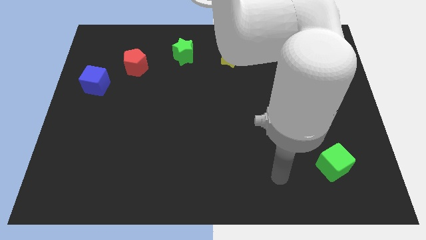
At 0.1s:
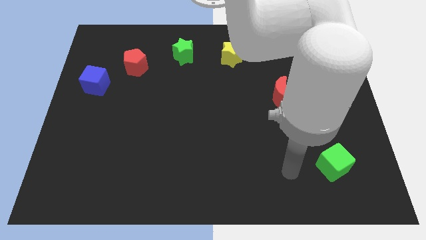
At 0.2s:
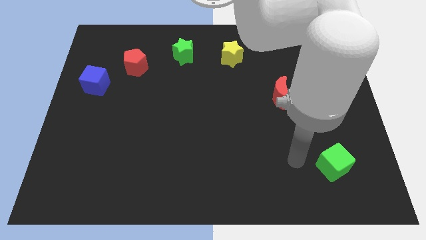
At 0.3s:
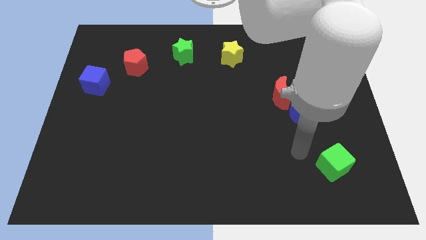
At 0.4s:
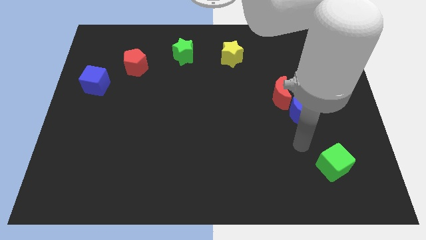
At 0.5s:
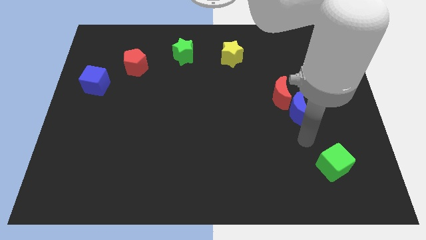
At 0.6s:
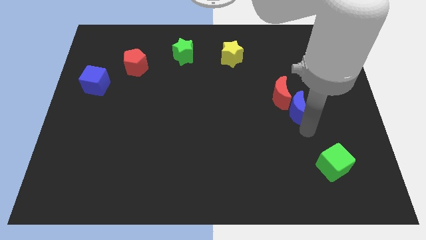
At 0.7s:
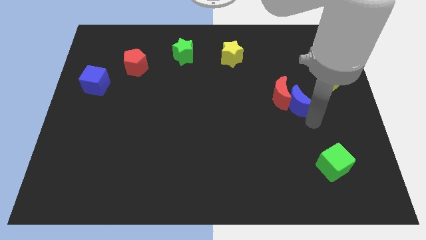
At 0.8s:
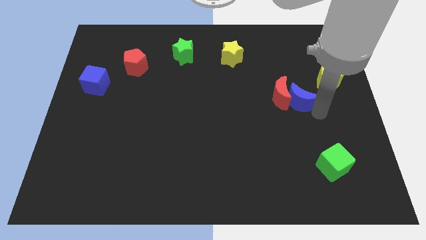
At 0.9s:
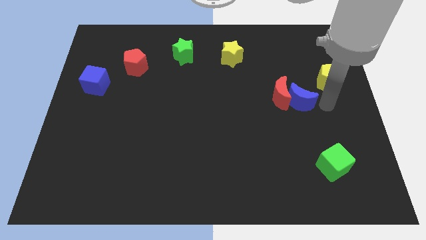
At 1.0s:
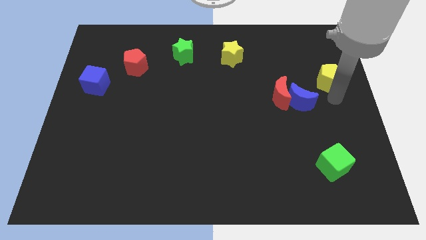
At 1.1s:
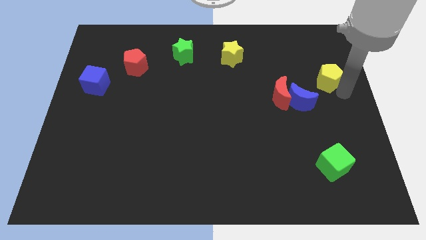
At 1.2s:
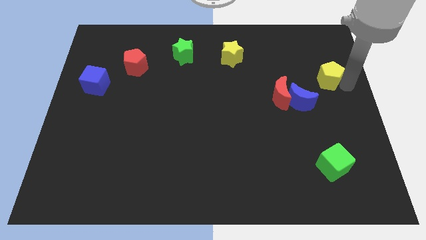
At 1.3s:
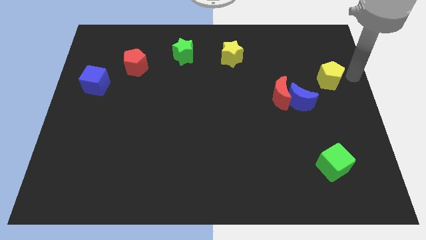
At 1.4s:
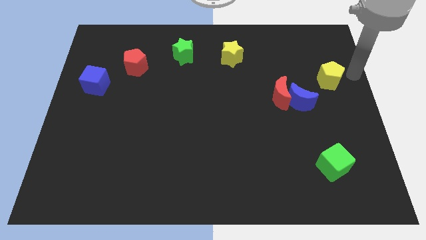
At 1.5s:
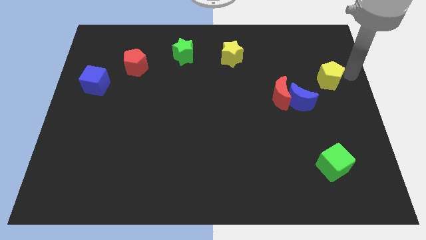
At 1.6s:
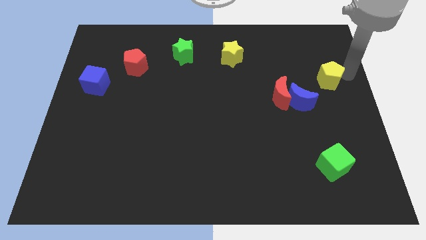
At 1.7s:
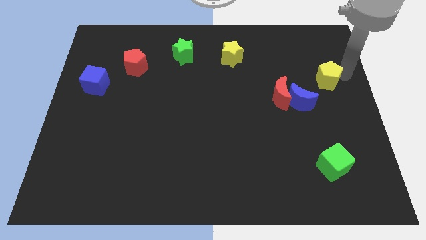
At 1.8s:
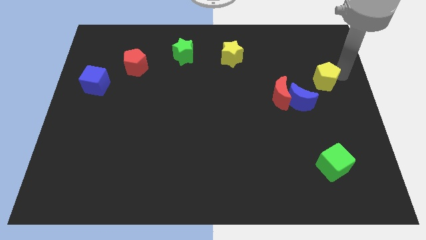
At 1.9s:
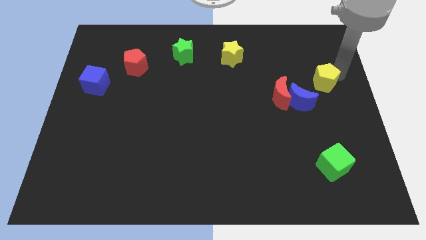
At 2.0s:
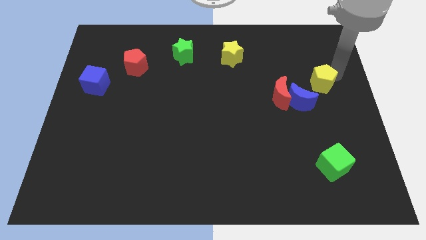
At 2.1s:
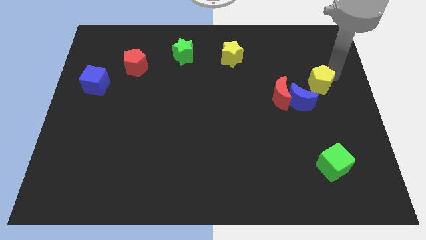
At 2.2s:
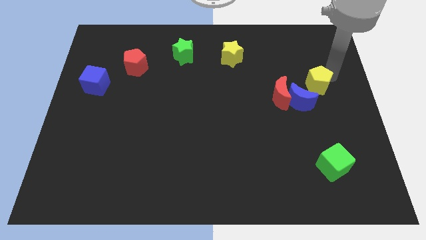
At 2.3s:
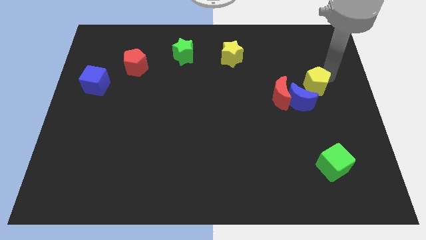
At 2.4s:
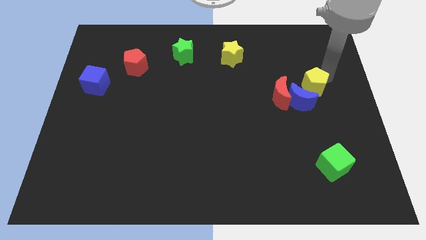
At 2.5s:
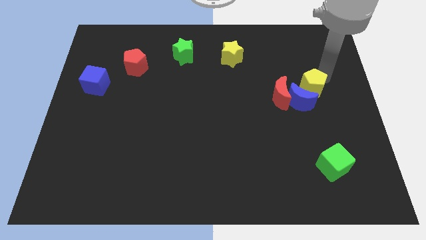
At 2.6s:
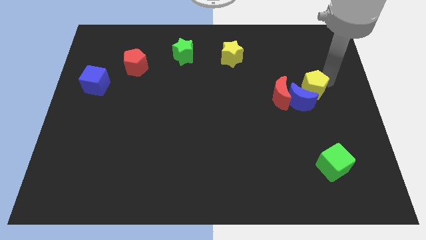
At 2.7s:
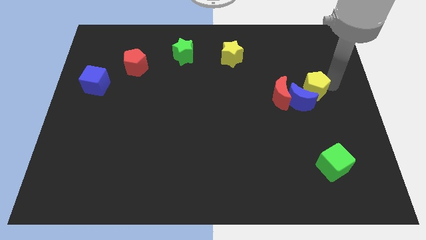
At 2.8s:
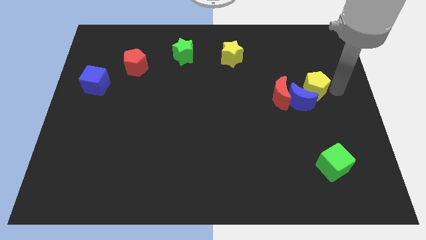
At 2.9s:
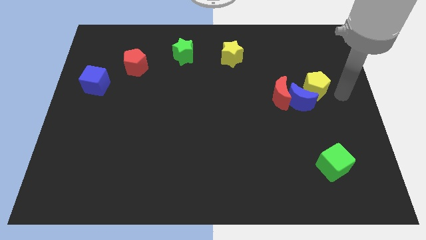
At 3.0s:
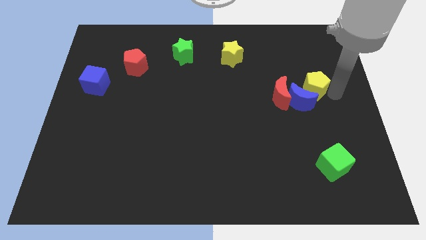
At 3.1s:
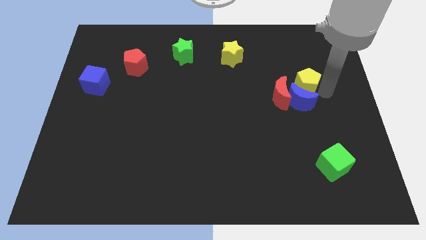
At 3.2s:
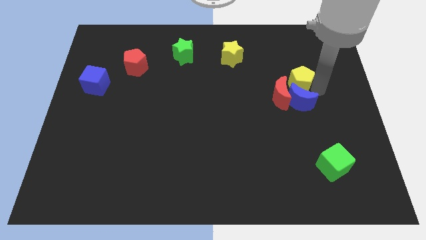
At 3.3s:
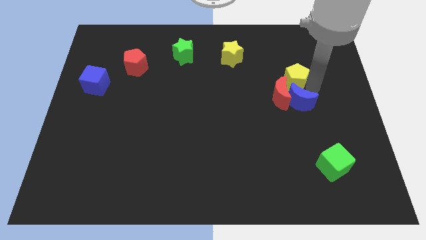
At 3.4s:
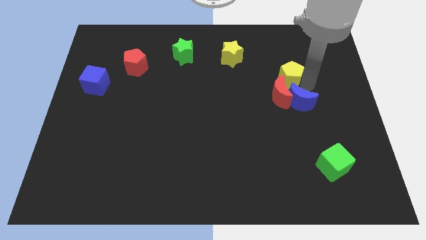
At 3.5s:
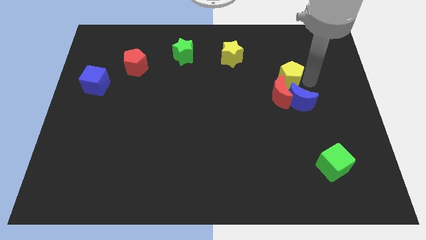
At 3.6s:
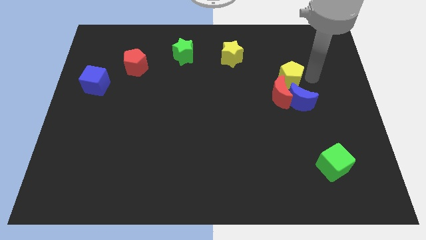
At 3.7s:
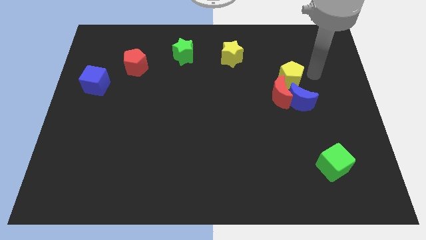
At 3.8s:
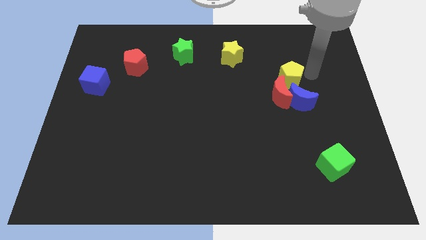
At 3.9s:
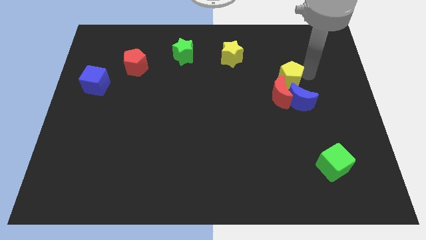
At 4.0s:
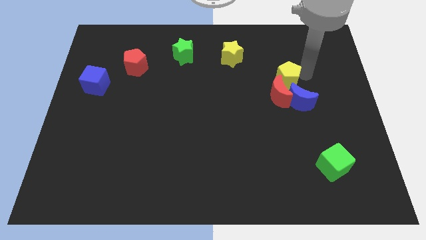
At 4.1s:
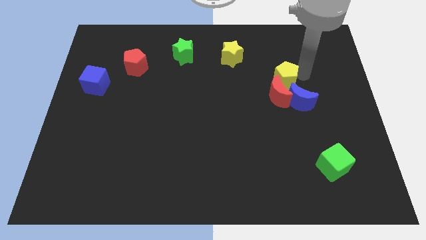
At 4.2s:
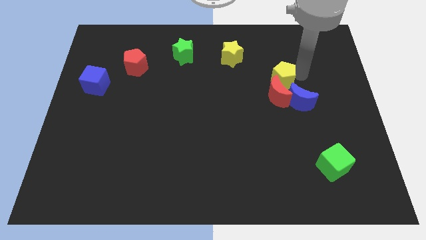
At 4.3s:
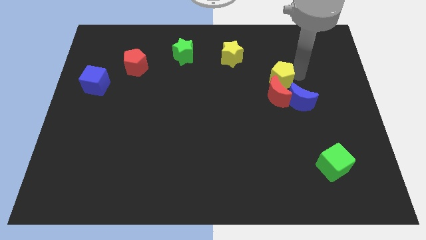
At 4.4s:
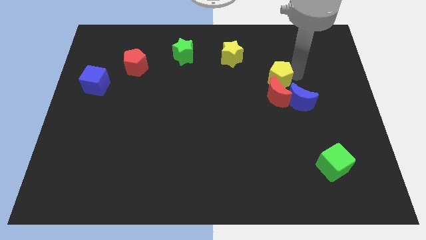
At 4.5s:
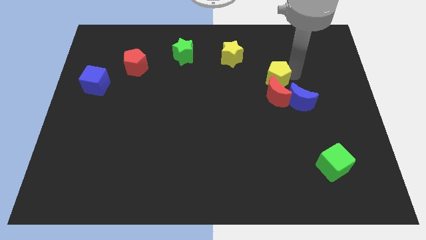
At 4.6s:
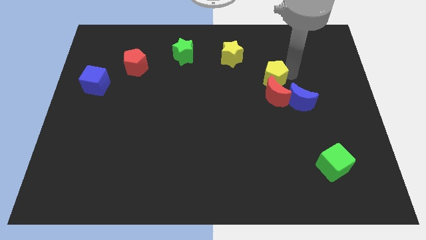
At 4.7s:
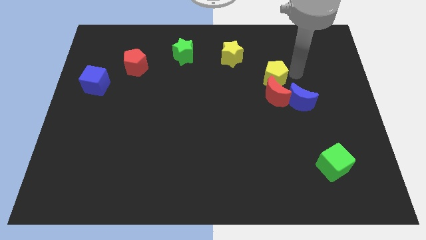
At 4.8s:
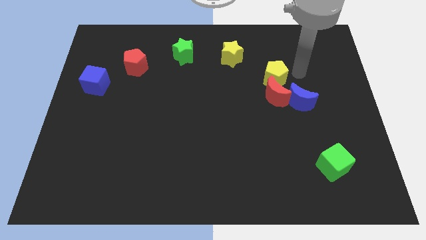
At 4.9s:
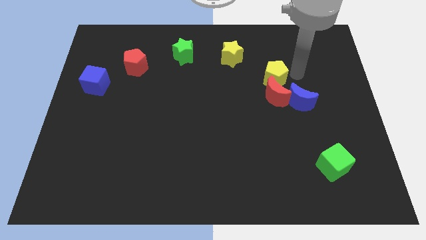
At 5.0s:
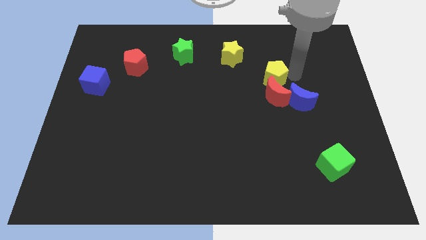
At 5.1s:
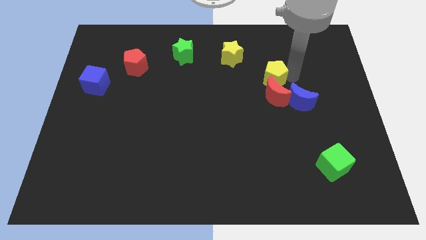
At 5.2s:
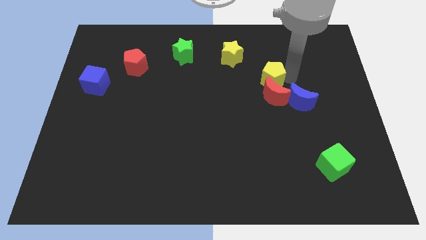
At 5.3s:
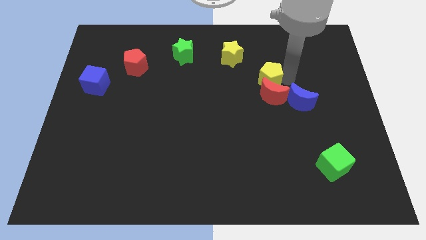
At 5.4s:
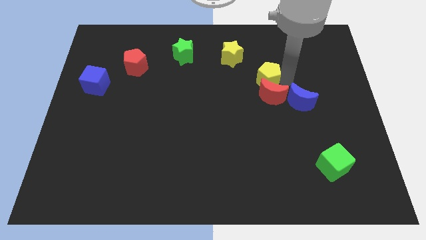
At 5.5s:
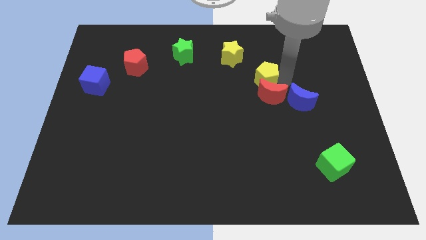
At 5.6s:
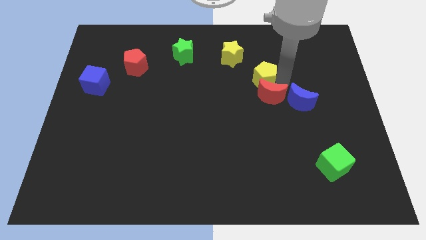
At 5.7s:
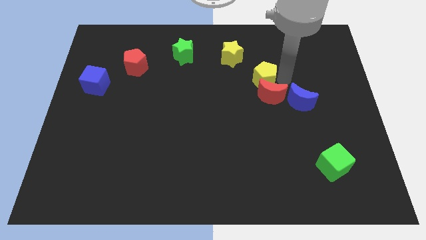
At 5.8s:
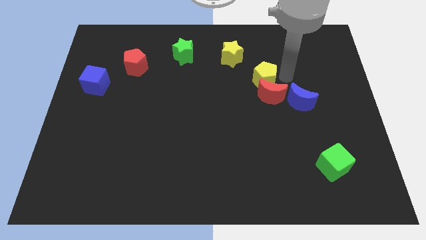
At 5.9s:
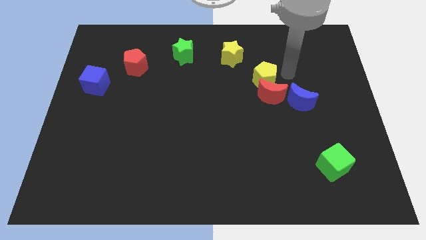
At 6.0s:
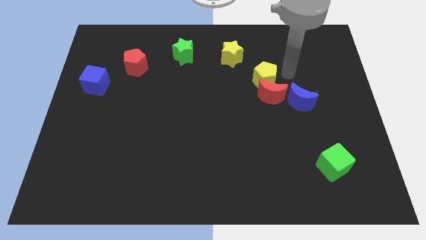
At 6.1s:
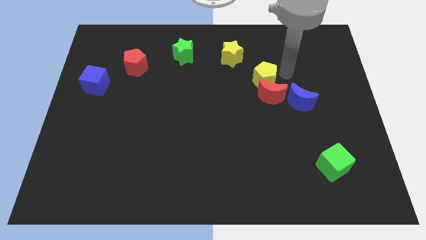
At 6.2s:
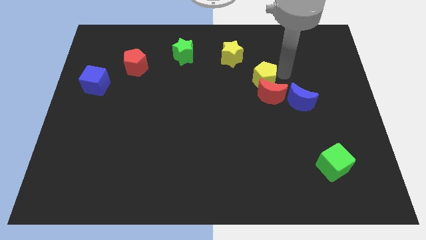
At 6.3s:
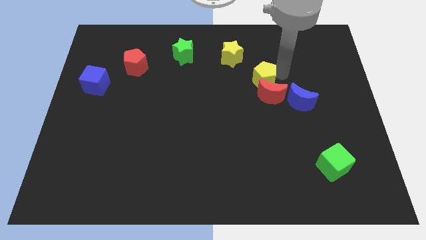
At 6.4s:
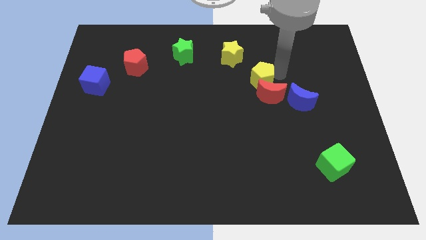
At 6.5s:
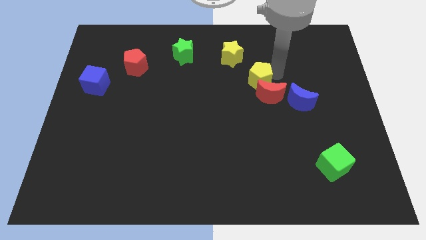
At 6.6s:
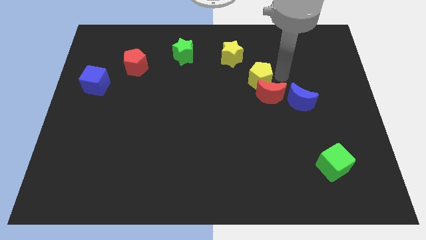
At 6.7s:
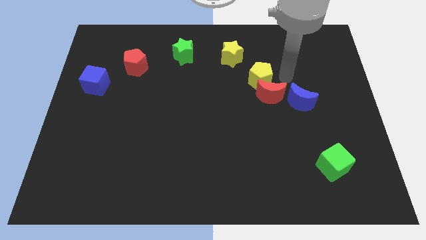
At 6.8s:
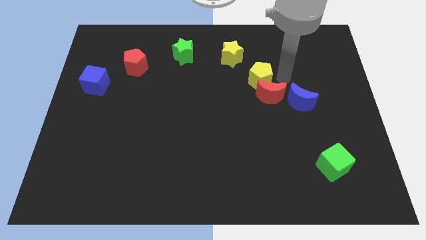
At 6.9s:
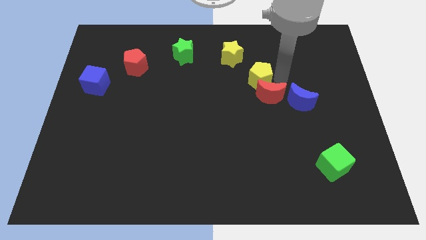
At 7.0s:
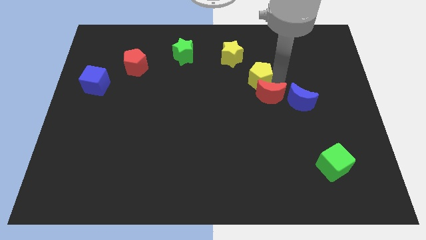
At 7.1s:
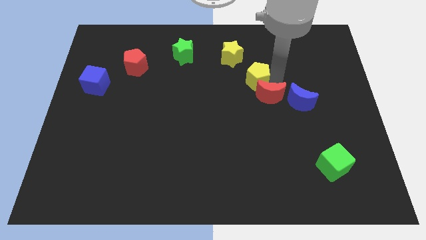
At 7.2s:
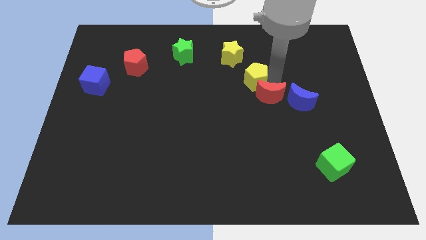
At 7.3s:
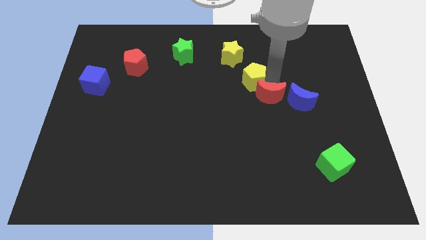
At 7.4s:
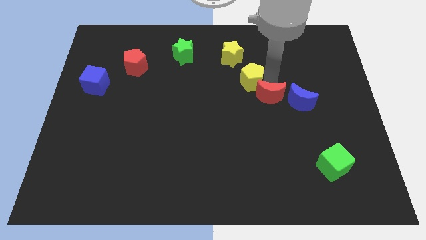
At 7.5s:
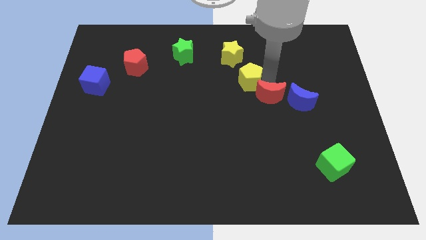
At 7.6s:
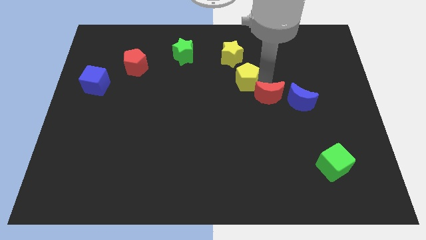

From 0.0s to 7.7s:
push the yellow pentagon left

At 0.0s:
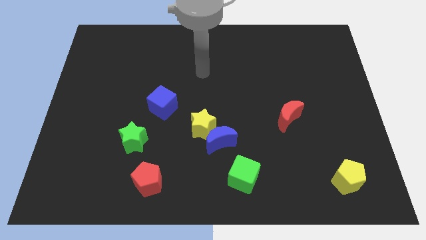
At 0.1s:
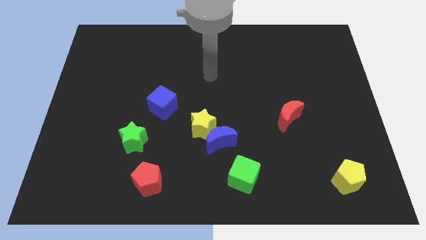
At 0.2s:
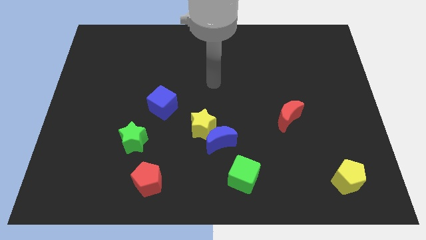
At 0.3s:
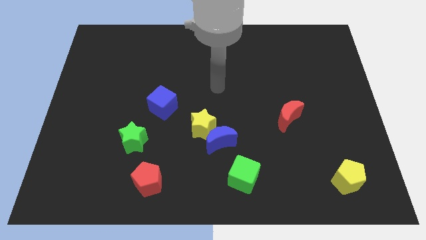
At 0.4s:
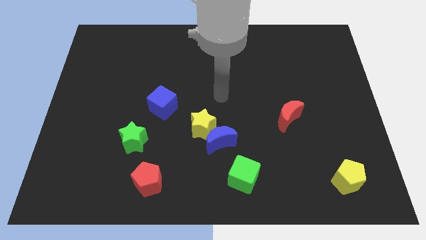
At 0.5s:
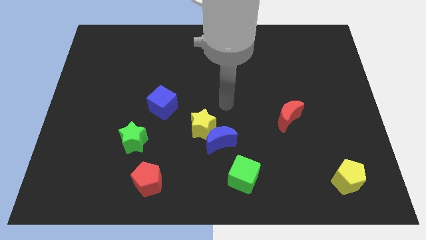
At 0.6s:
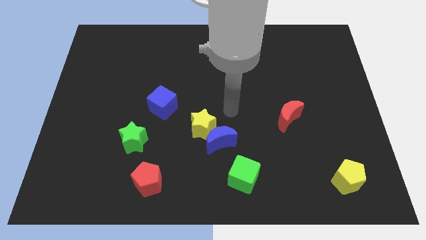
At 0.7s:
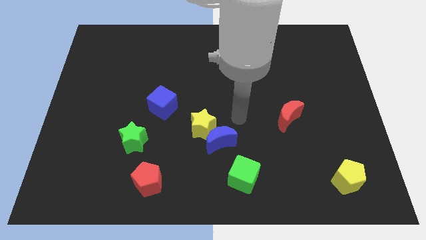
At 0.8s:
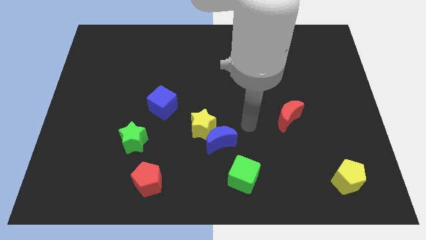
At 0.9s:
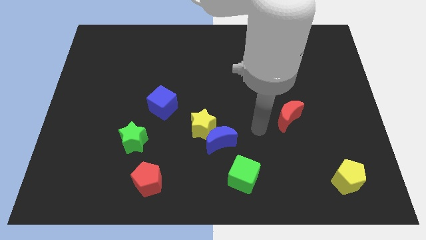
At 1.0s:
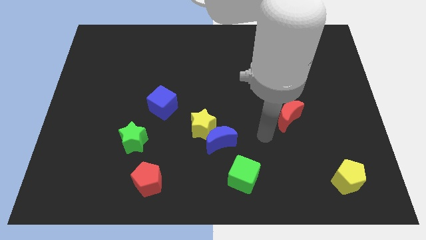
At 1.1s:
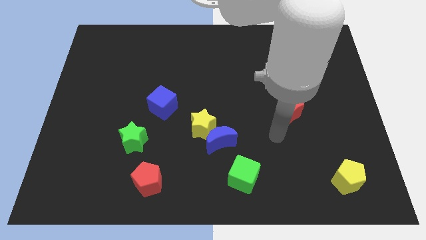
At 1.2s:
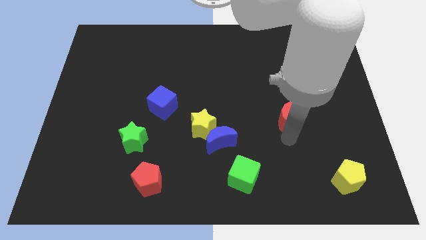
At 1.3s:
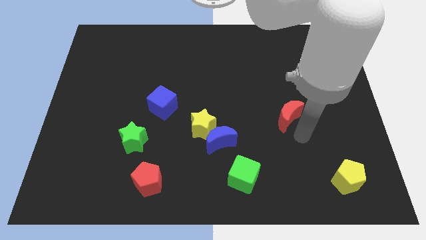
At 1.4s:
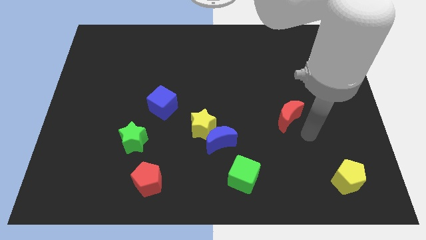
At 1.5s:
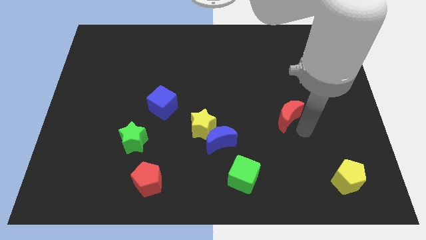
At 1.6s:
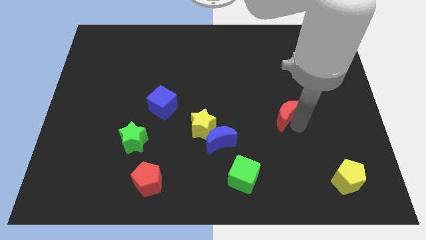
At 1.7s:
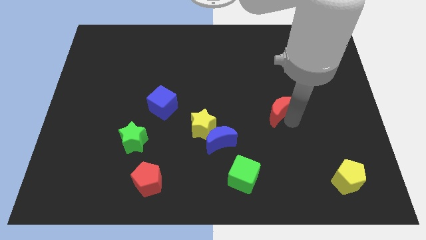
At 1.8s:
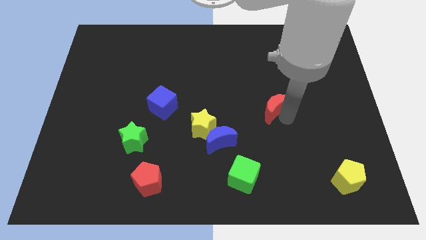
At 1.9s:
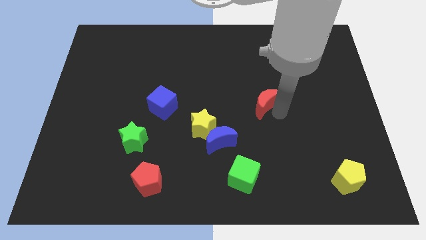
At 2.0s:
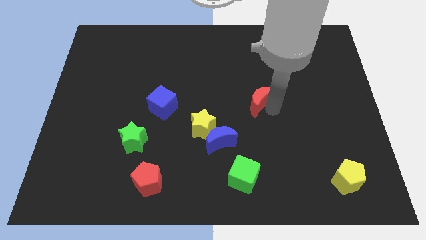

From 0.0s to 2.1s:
slide the red moon a little up and left diagonally
